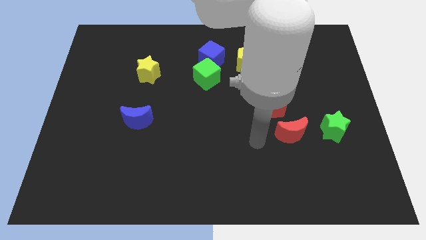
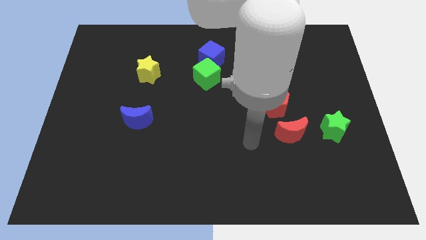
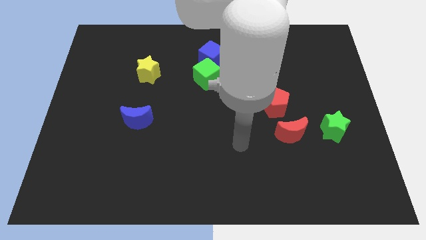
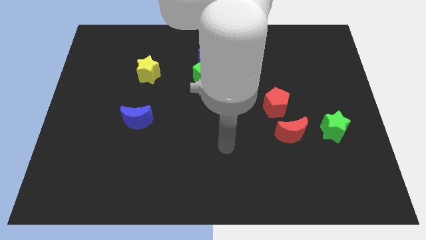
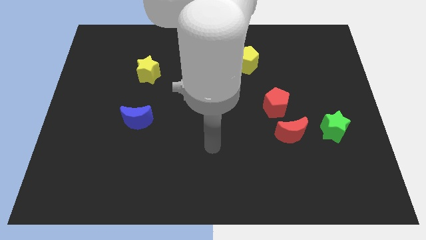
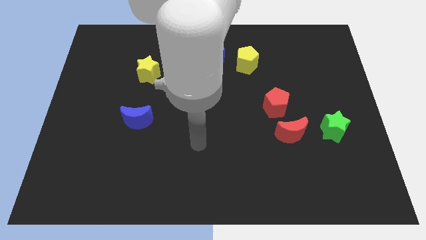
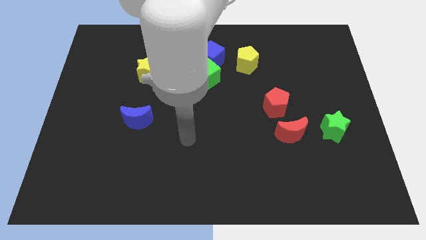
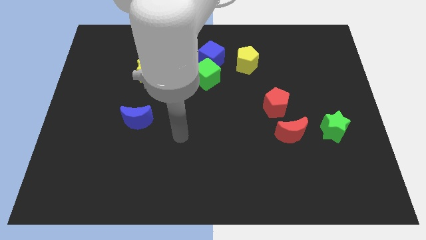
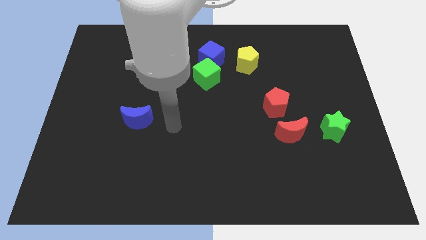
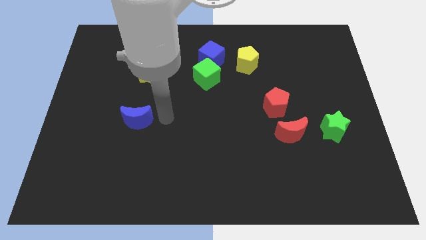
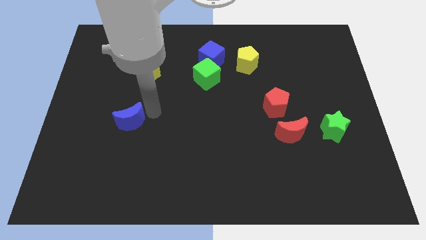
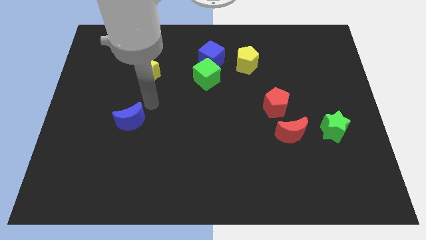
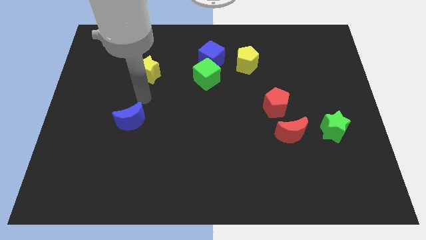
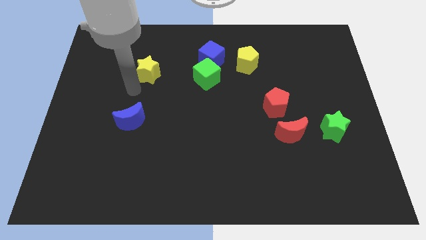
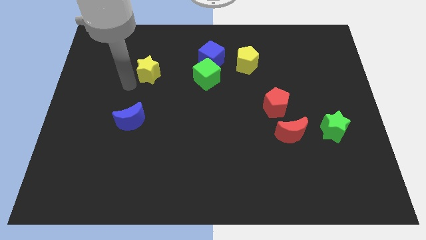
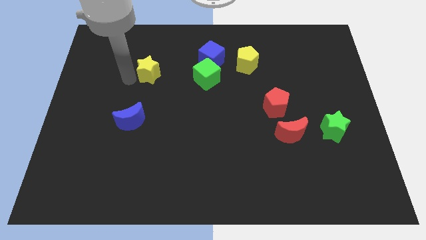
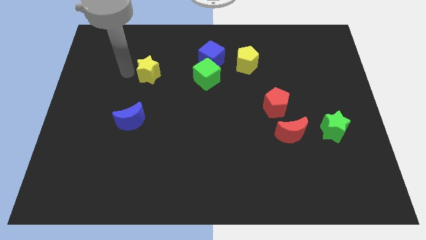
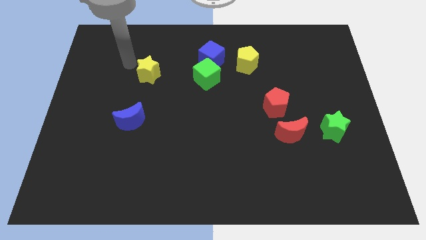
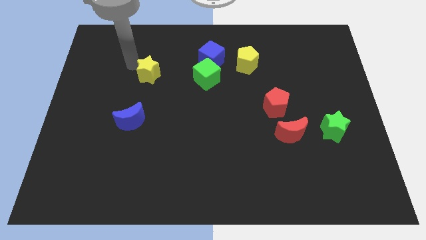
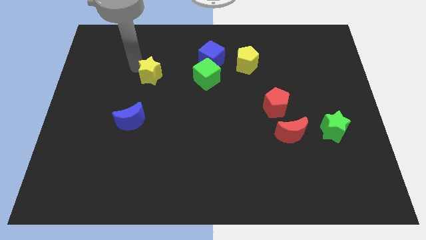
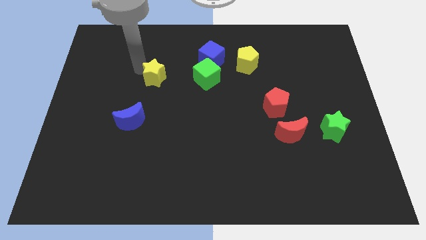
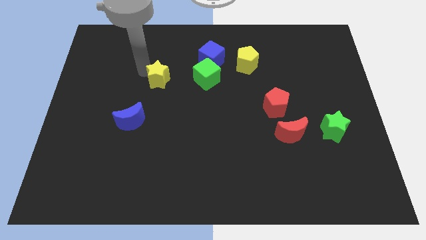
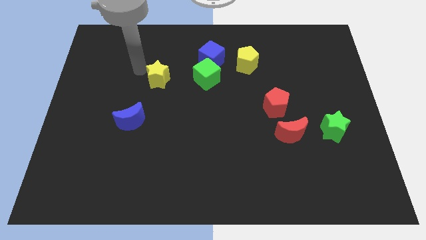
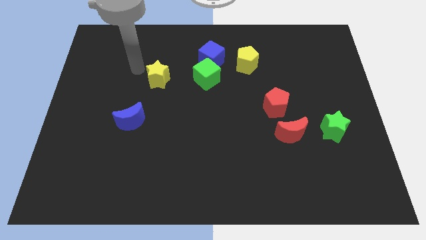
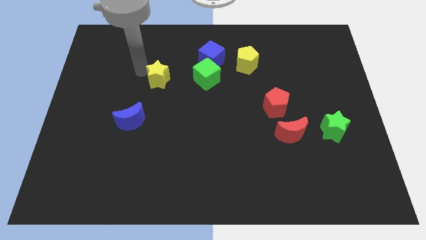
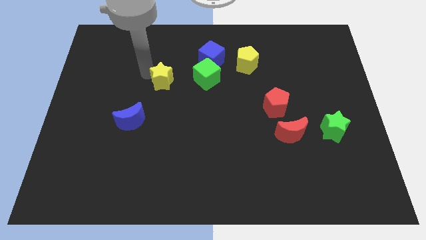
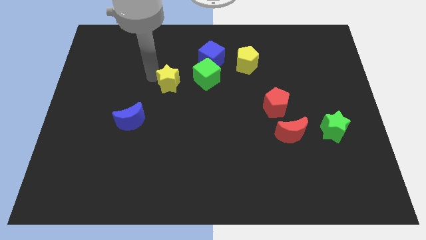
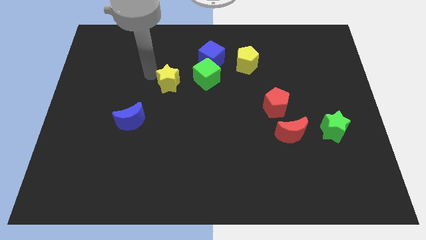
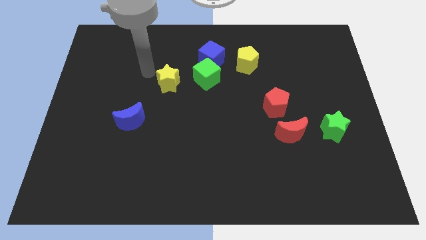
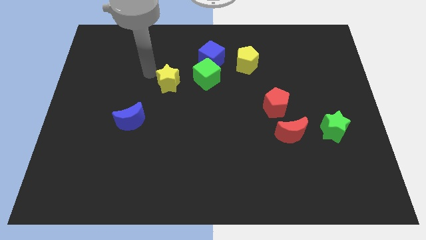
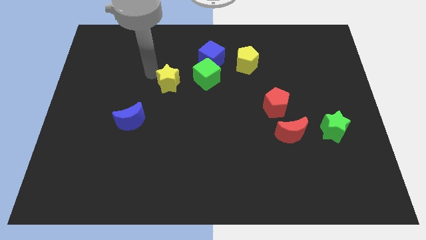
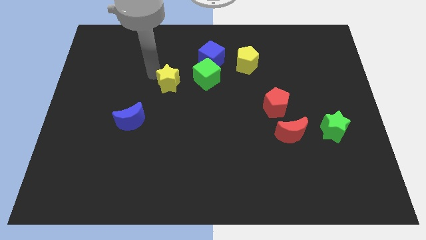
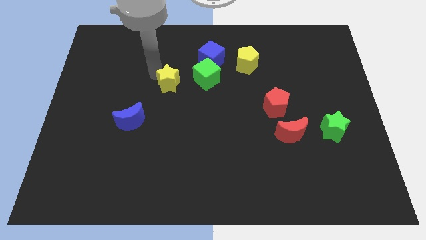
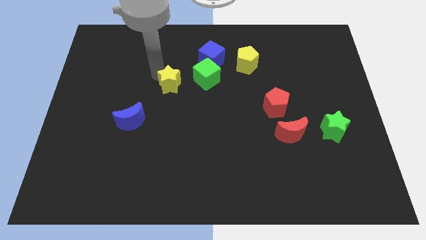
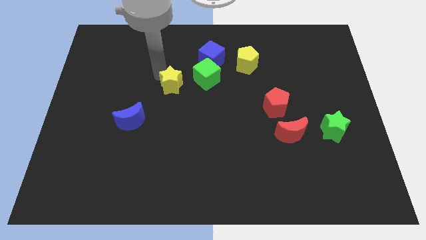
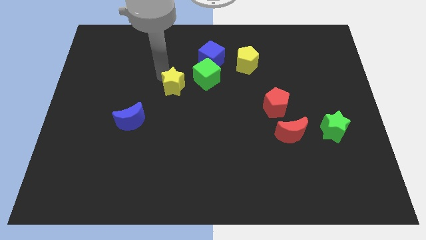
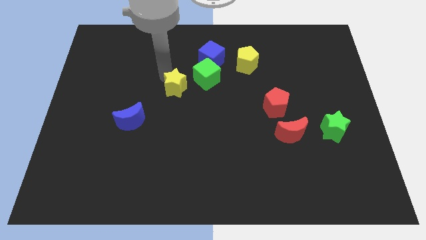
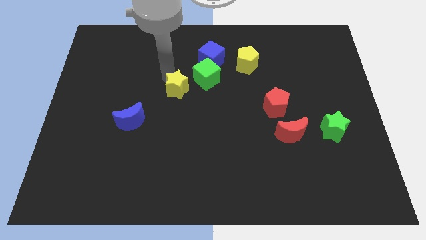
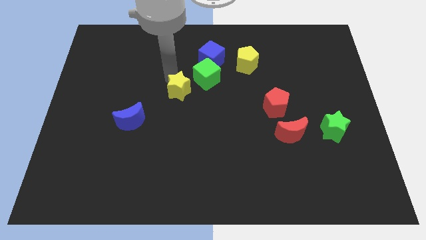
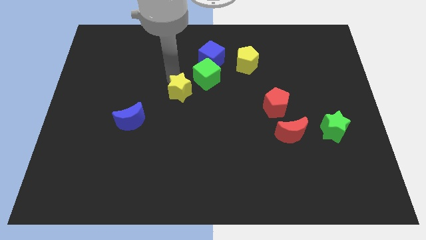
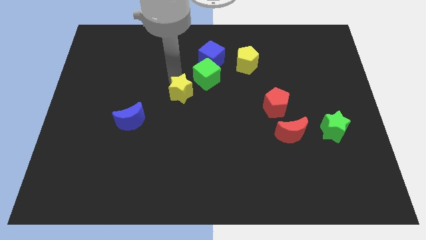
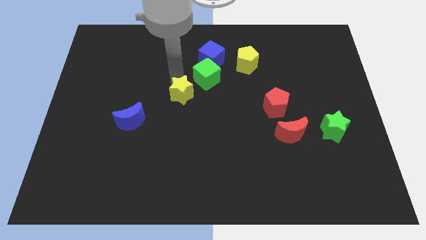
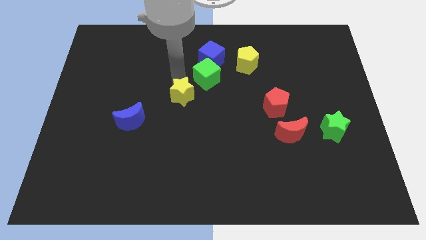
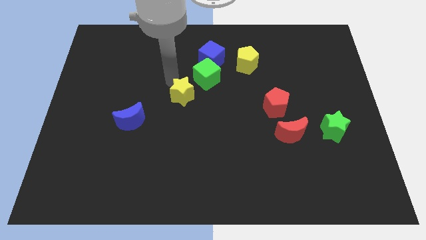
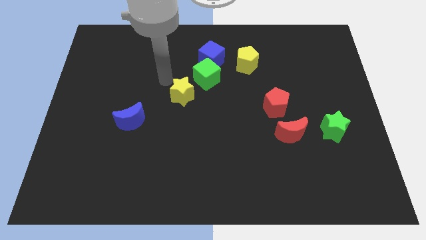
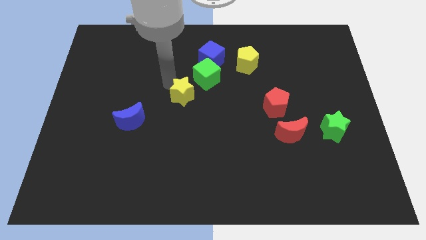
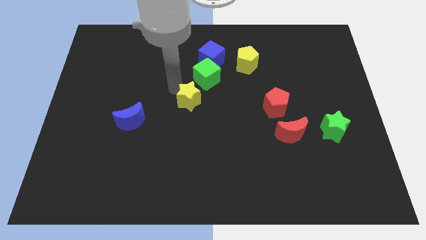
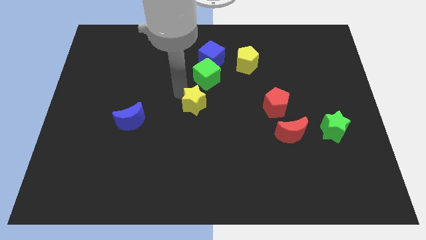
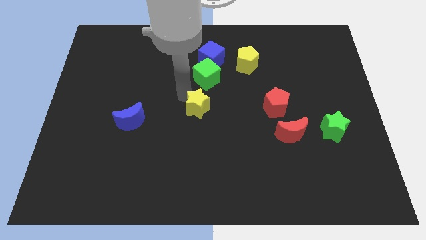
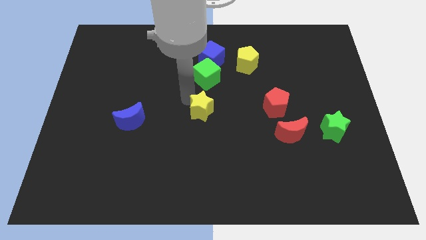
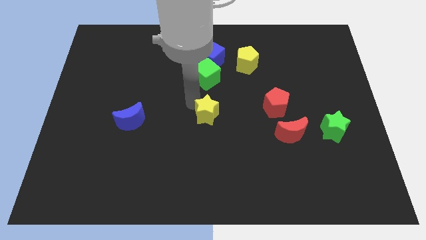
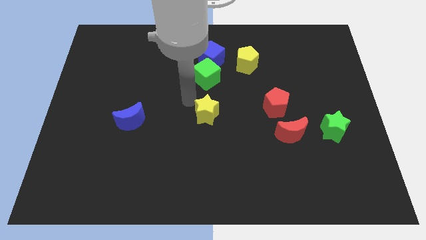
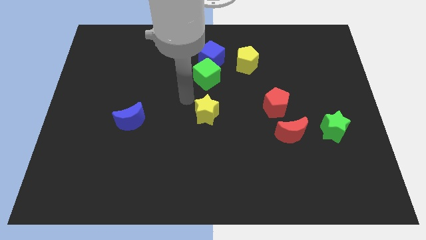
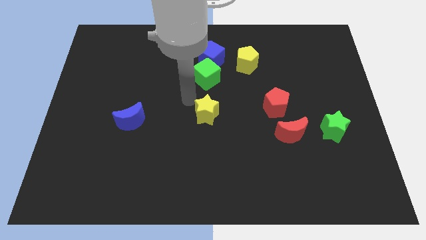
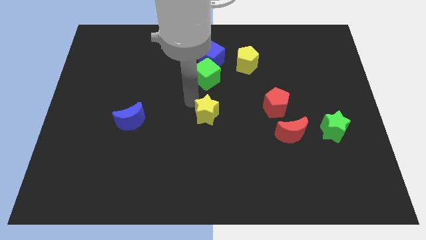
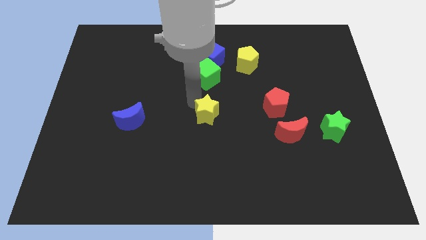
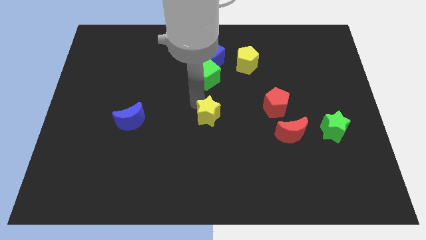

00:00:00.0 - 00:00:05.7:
push the yellow star down and then to the right

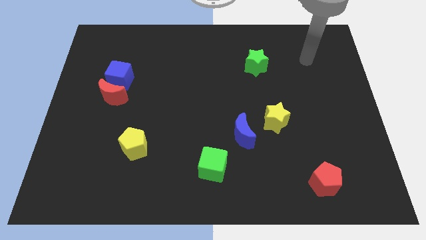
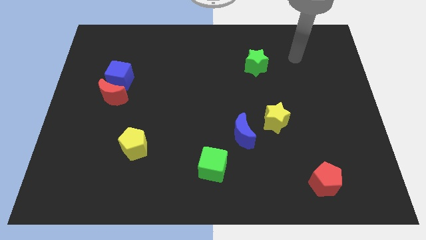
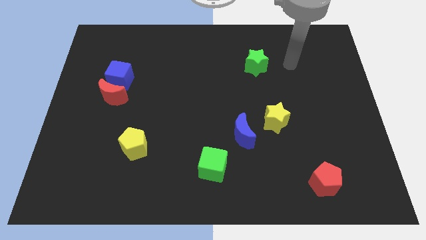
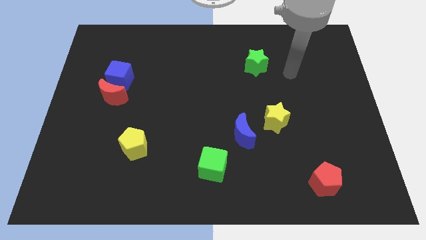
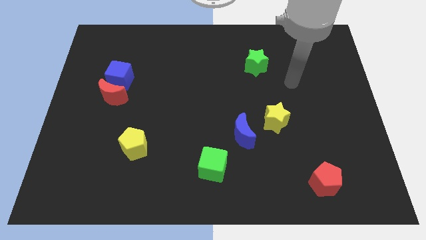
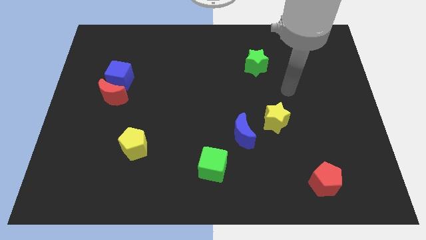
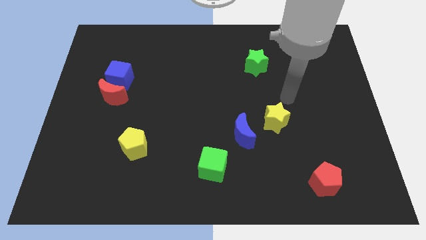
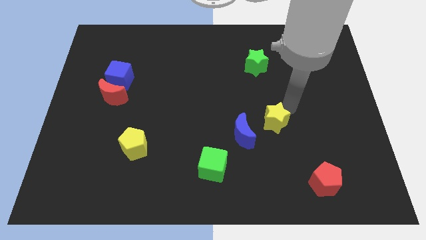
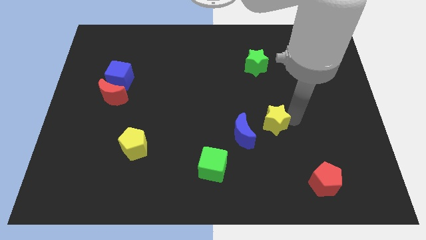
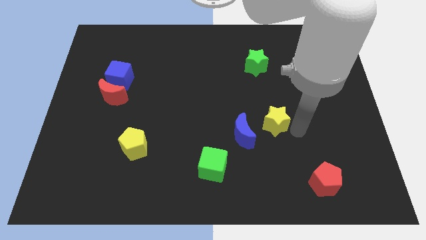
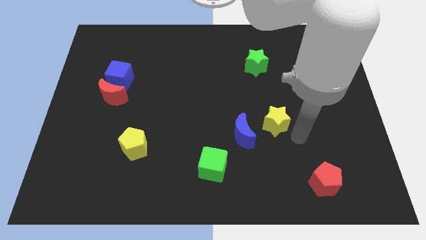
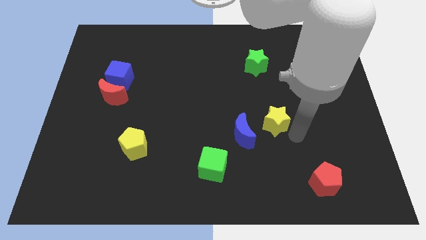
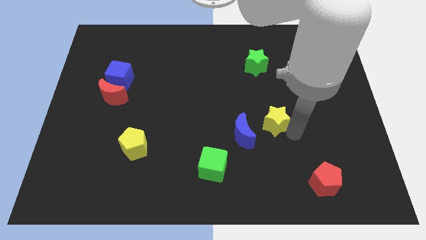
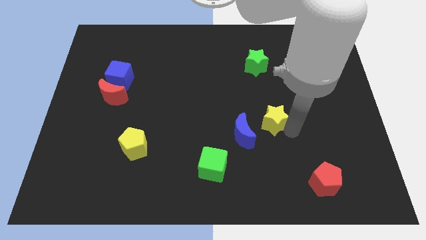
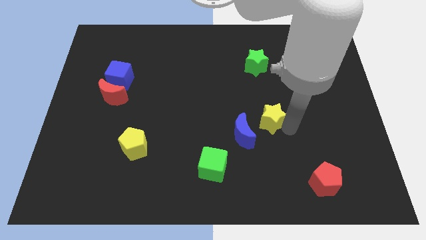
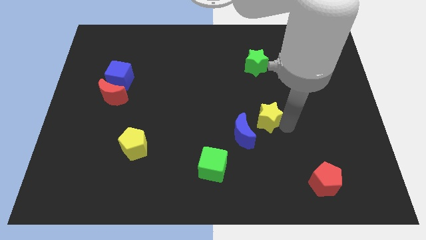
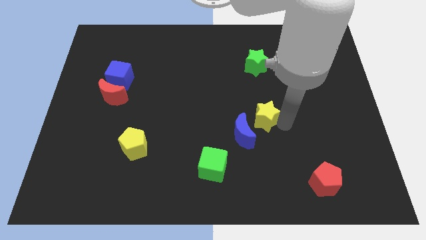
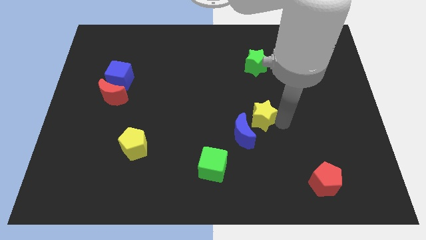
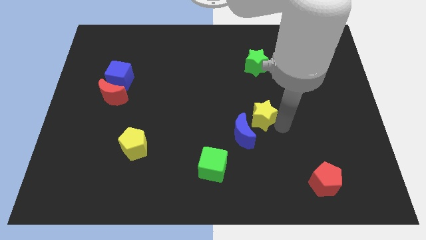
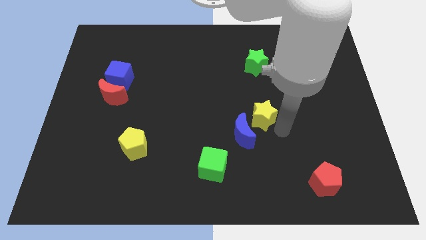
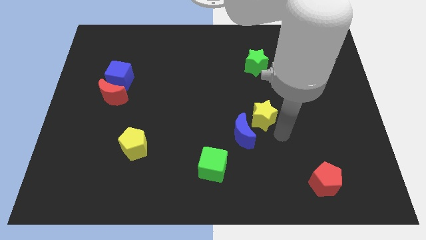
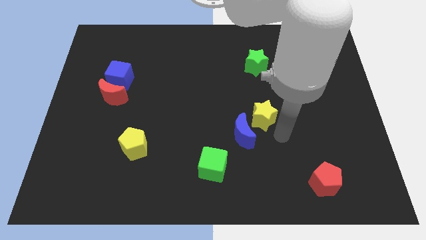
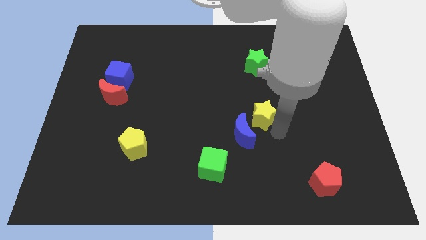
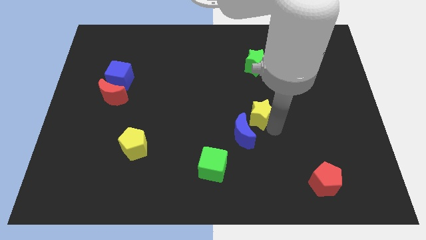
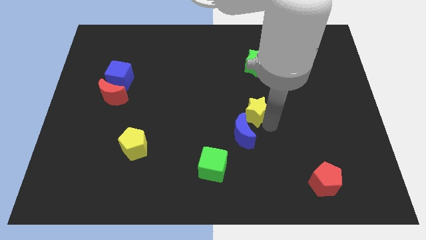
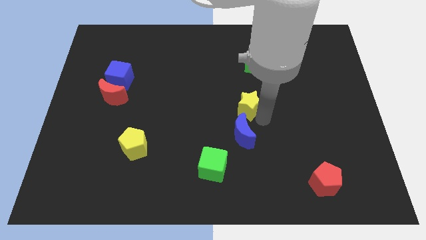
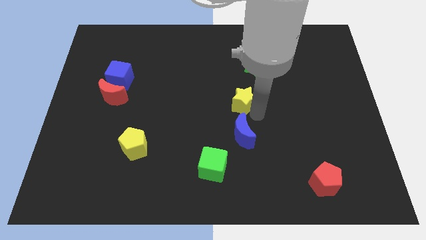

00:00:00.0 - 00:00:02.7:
slide the yellow star up and left diagonally a little bit
